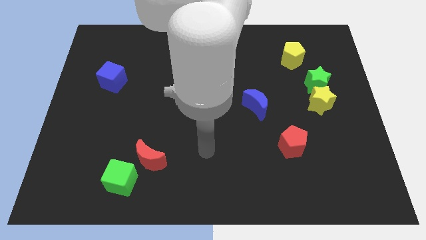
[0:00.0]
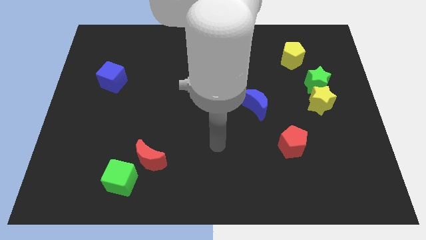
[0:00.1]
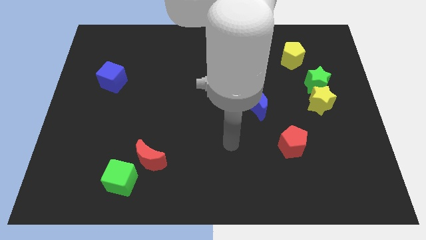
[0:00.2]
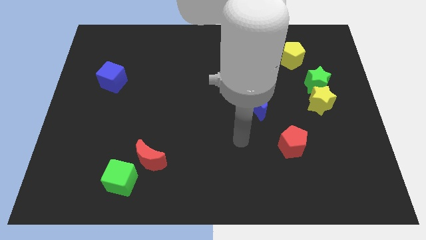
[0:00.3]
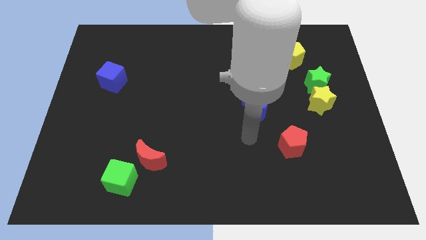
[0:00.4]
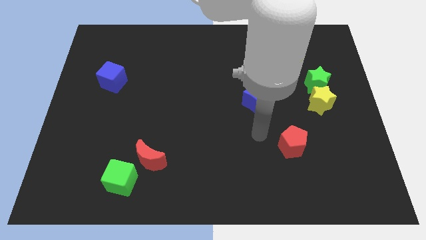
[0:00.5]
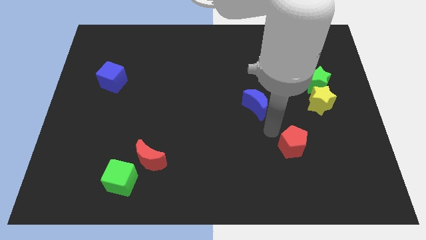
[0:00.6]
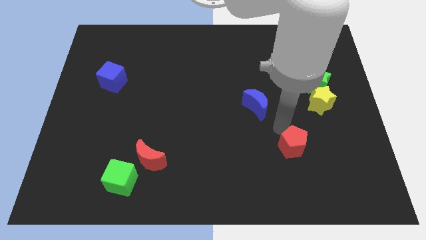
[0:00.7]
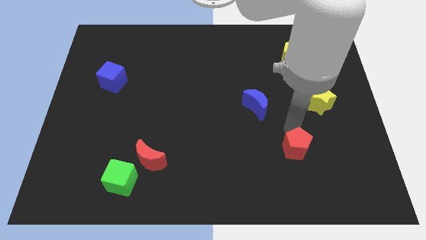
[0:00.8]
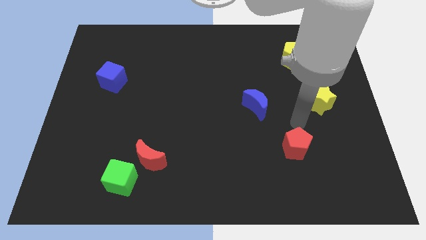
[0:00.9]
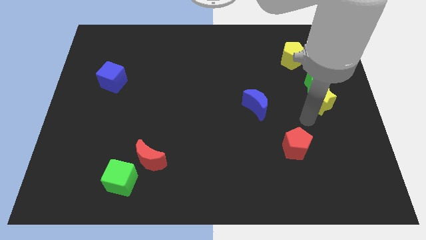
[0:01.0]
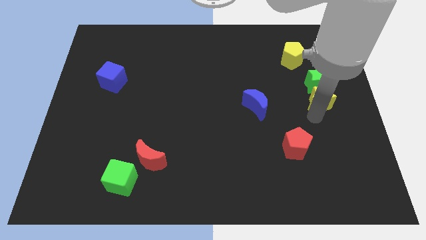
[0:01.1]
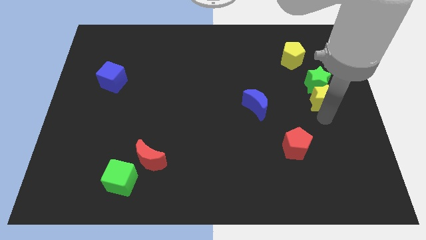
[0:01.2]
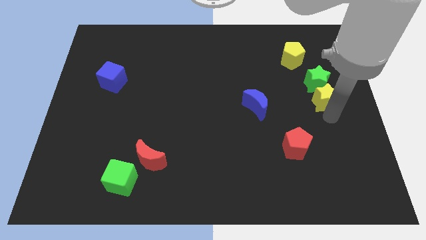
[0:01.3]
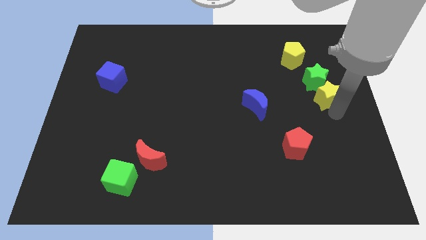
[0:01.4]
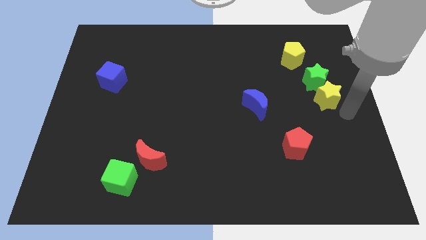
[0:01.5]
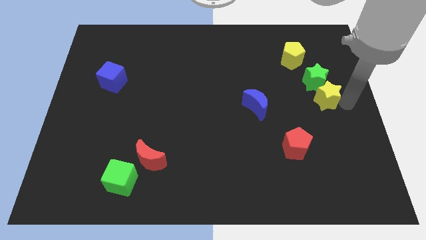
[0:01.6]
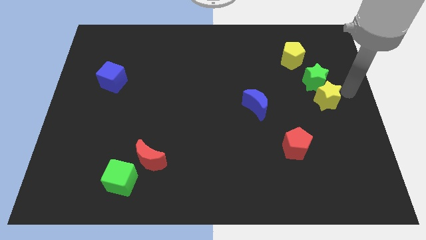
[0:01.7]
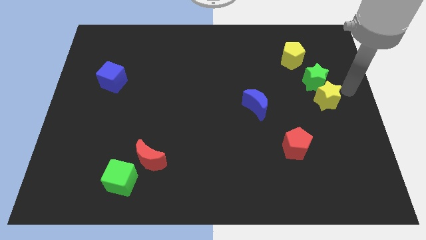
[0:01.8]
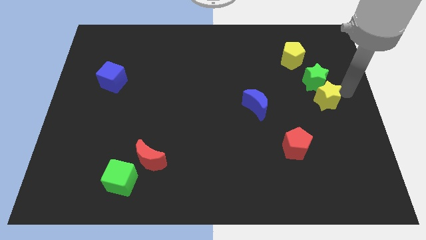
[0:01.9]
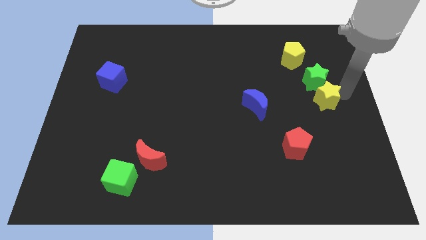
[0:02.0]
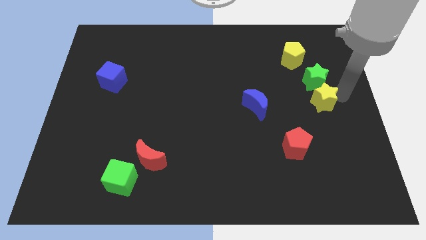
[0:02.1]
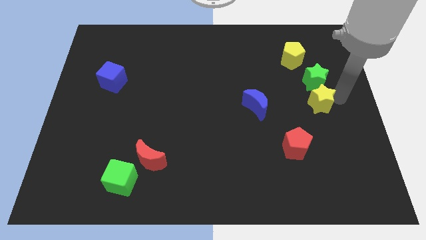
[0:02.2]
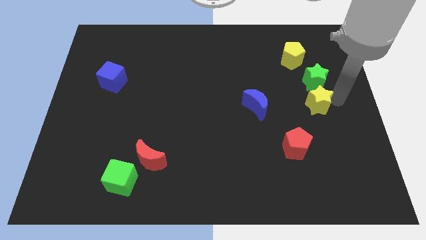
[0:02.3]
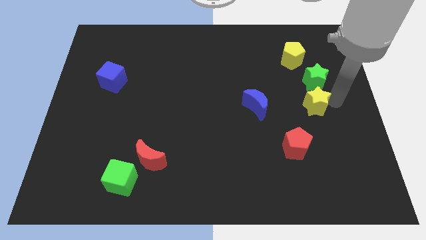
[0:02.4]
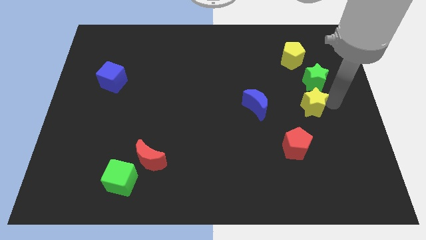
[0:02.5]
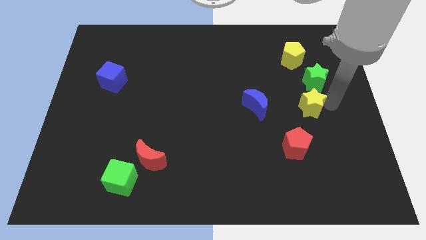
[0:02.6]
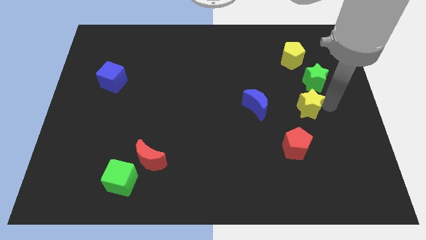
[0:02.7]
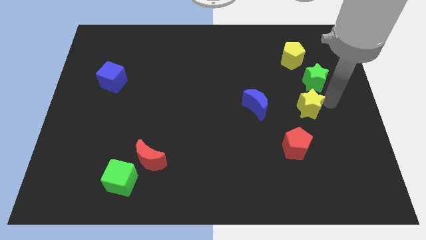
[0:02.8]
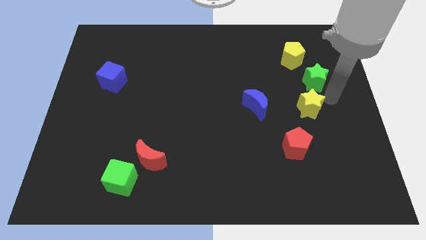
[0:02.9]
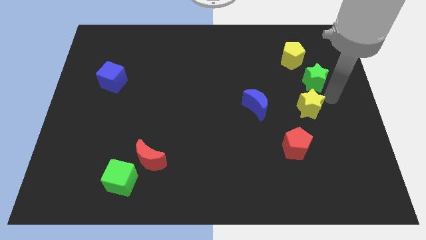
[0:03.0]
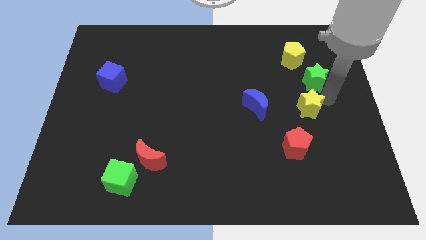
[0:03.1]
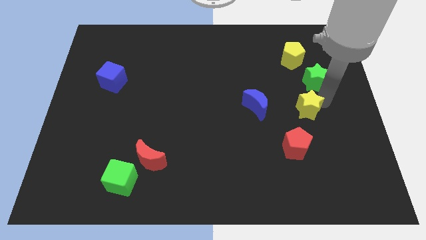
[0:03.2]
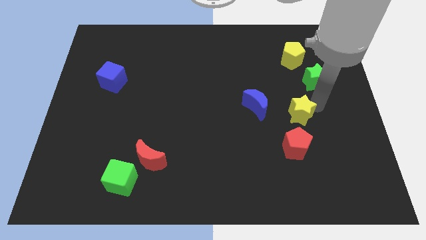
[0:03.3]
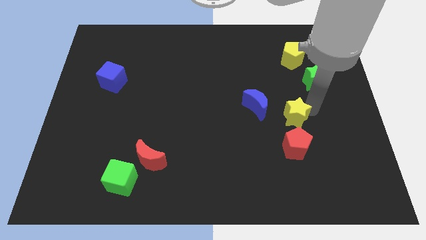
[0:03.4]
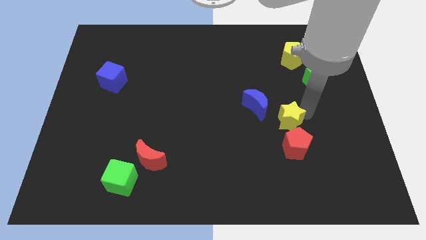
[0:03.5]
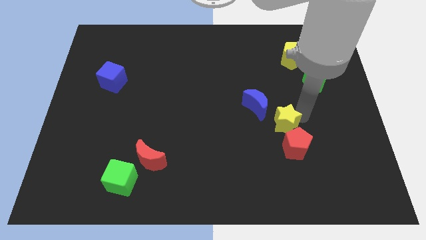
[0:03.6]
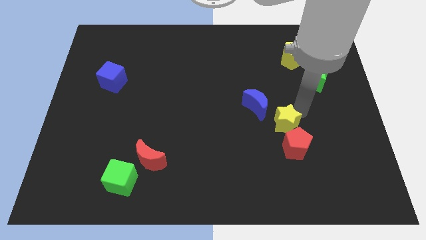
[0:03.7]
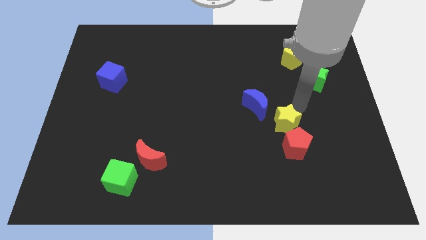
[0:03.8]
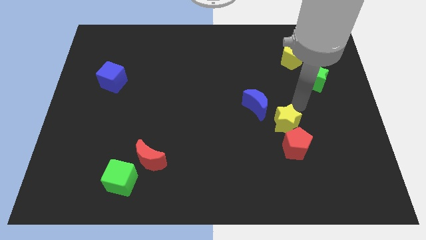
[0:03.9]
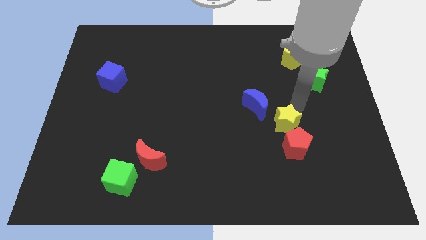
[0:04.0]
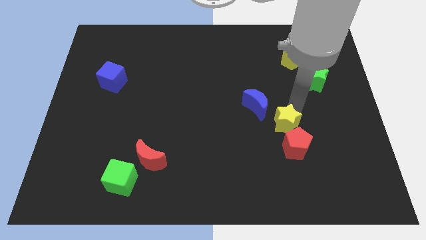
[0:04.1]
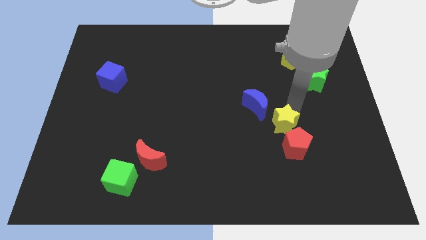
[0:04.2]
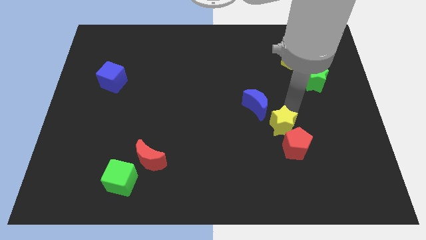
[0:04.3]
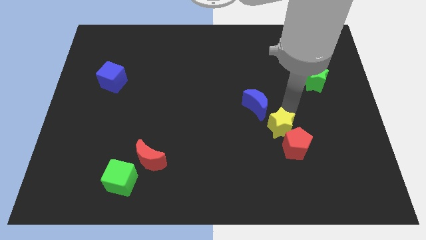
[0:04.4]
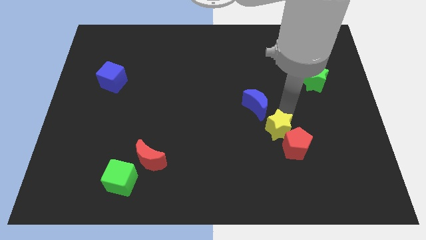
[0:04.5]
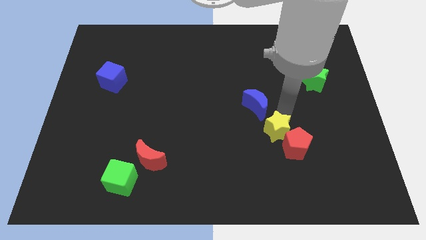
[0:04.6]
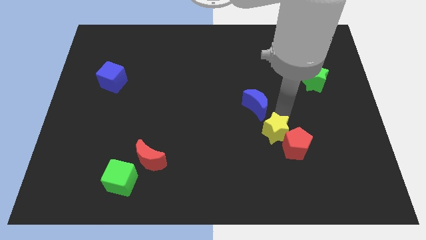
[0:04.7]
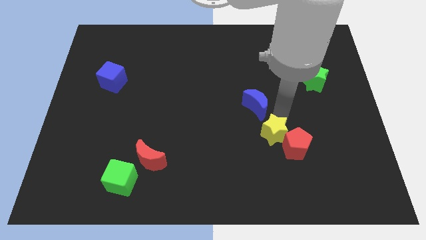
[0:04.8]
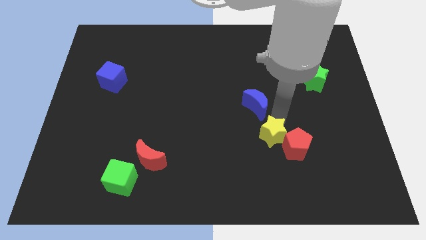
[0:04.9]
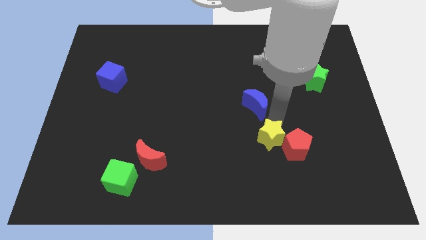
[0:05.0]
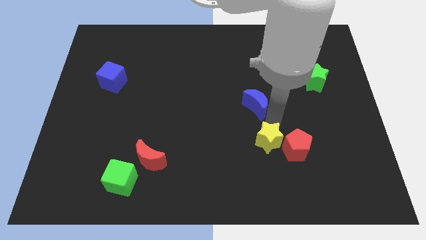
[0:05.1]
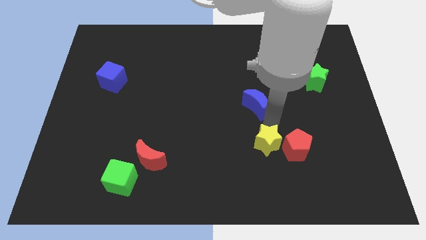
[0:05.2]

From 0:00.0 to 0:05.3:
move the yellow star to the bottom left side of the red pentagon

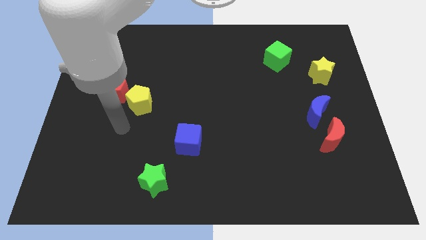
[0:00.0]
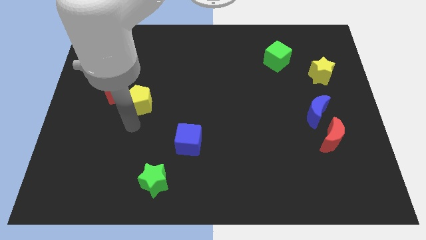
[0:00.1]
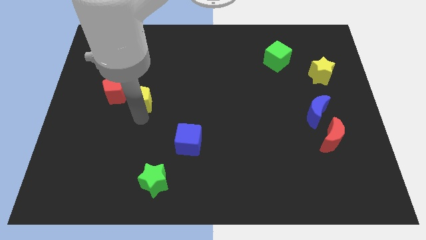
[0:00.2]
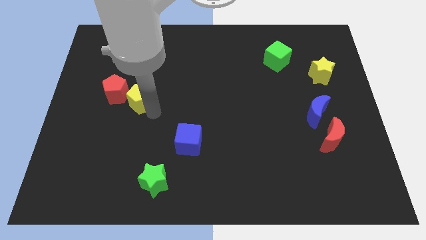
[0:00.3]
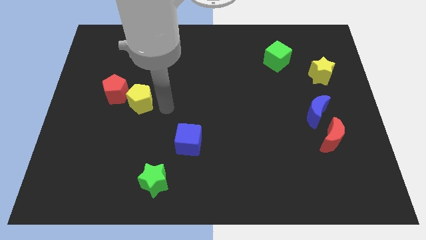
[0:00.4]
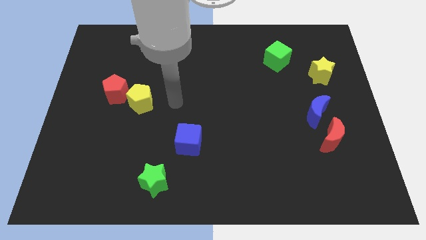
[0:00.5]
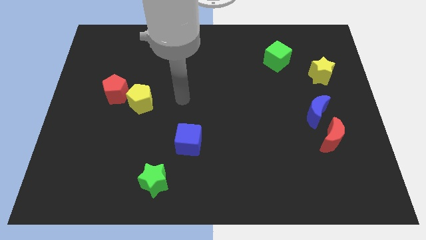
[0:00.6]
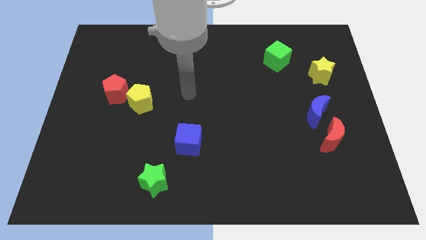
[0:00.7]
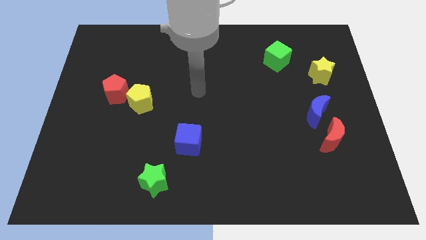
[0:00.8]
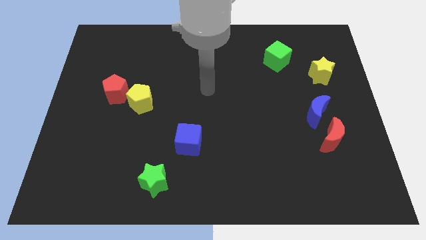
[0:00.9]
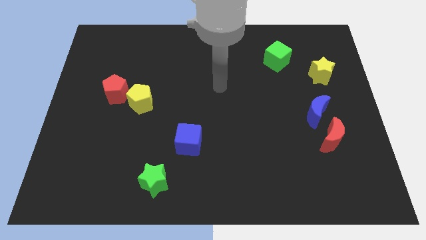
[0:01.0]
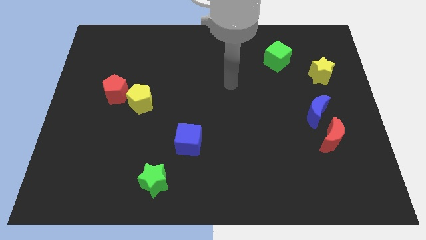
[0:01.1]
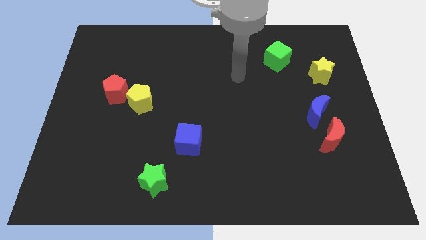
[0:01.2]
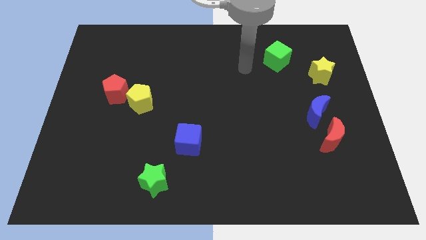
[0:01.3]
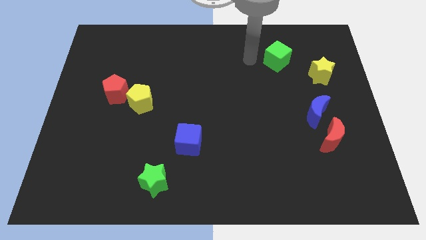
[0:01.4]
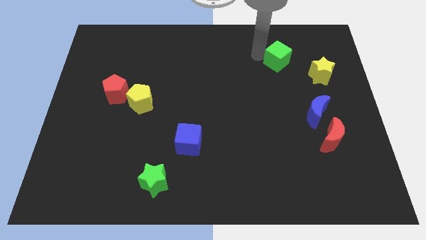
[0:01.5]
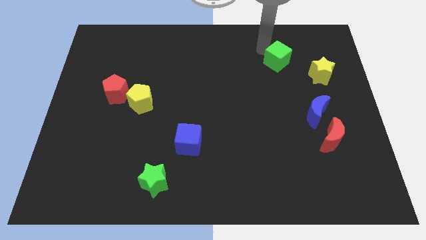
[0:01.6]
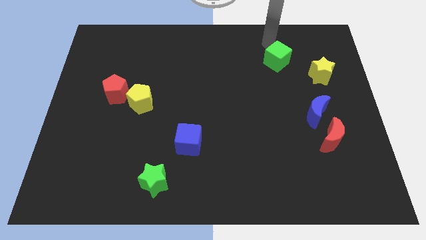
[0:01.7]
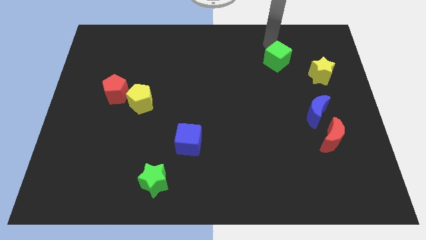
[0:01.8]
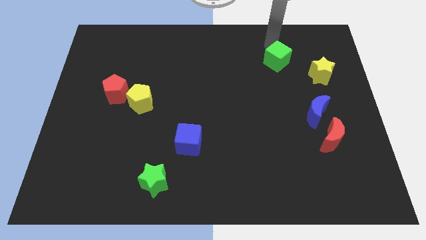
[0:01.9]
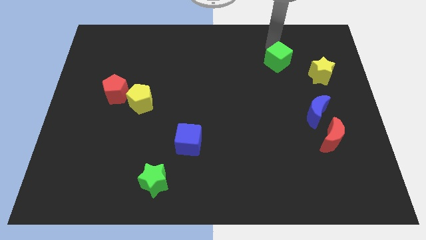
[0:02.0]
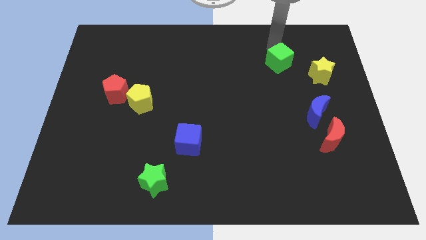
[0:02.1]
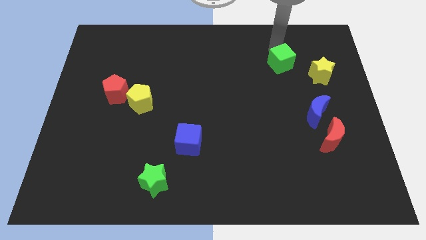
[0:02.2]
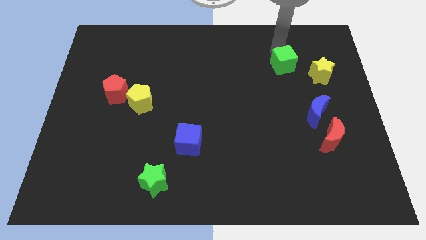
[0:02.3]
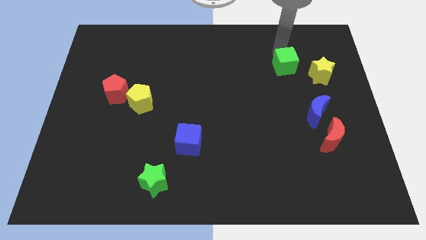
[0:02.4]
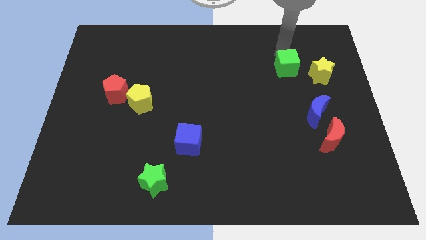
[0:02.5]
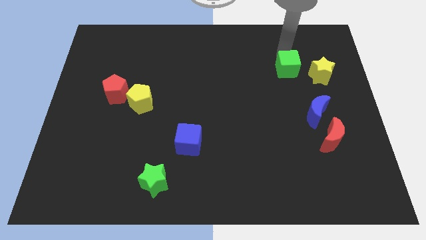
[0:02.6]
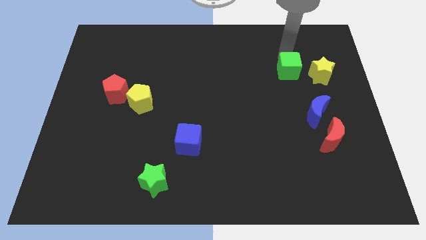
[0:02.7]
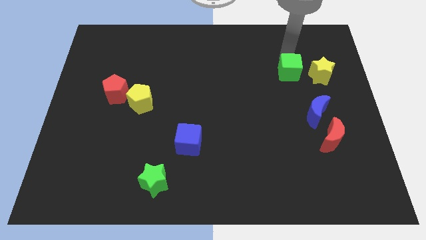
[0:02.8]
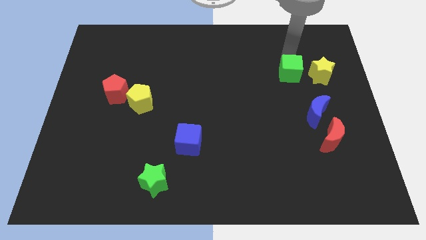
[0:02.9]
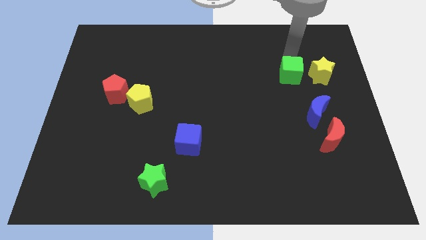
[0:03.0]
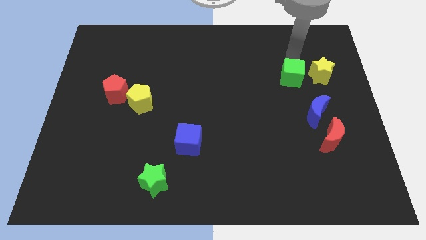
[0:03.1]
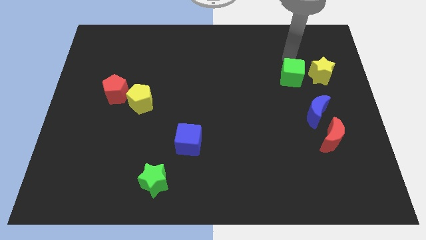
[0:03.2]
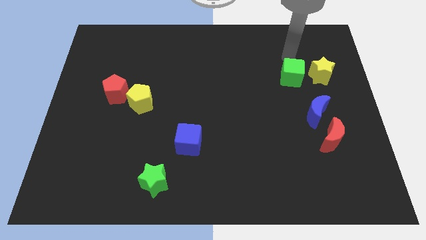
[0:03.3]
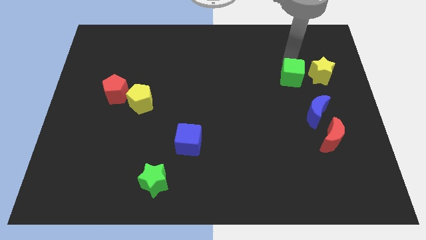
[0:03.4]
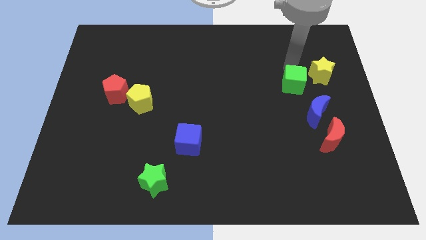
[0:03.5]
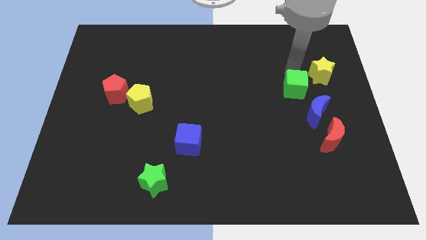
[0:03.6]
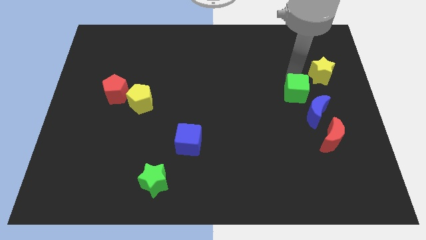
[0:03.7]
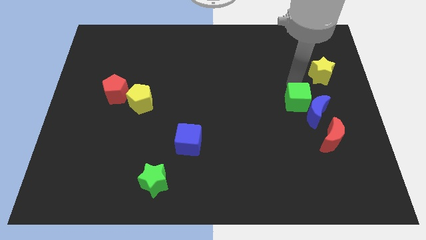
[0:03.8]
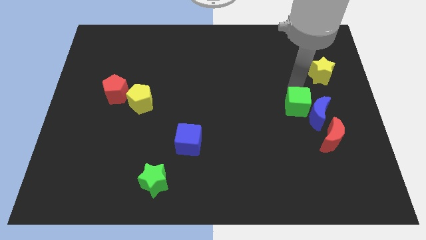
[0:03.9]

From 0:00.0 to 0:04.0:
slide the green cube to the top left of the red moon
